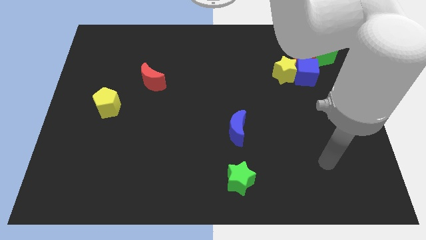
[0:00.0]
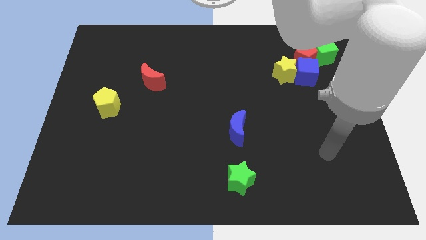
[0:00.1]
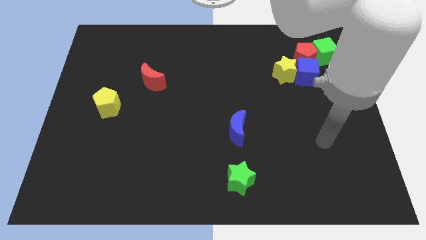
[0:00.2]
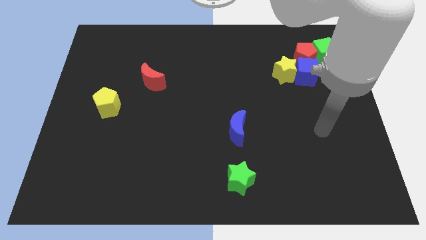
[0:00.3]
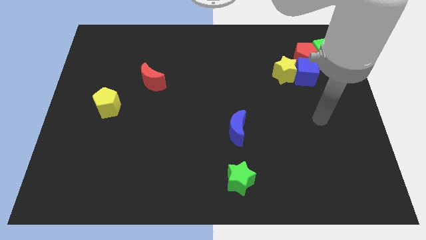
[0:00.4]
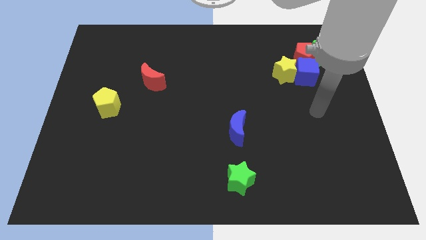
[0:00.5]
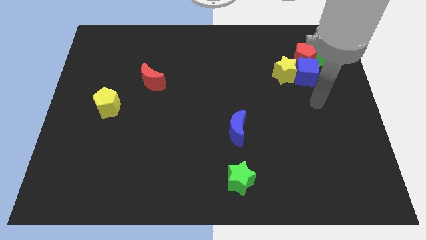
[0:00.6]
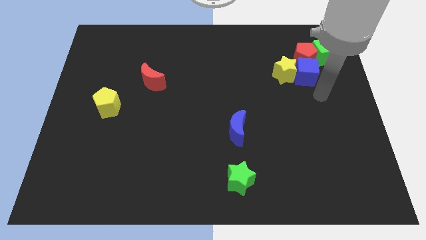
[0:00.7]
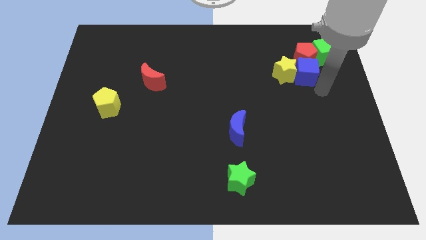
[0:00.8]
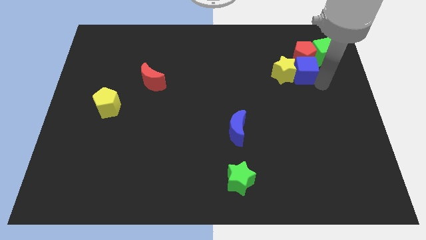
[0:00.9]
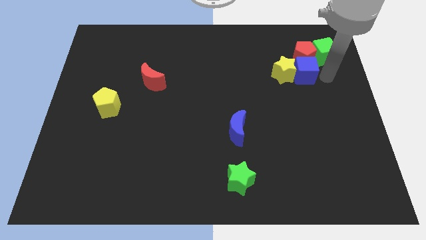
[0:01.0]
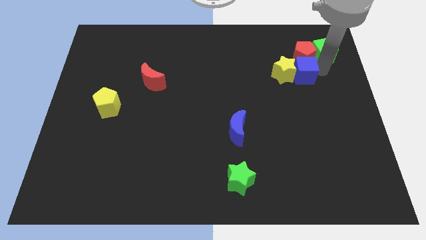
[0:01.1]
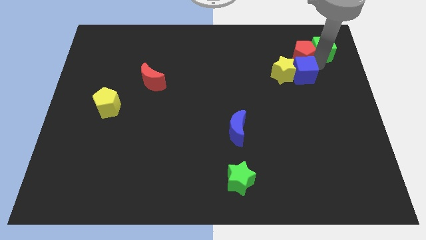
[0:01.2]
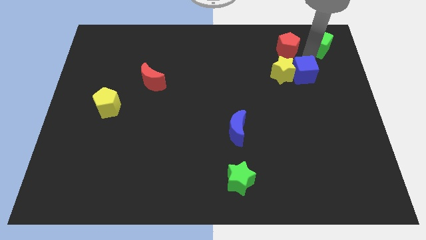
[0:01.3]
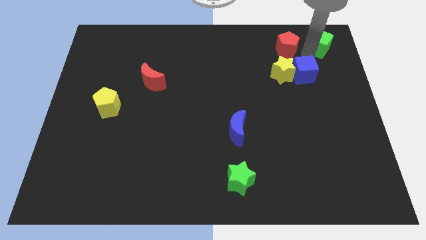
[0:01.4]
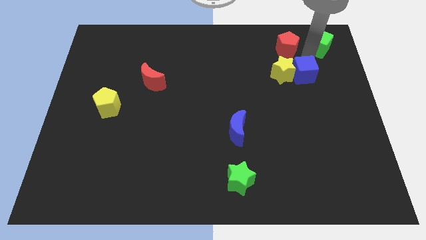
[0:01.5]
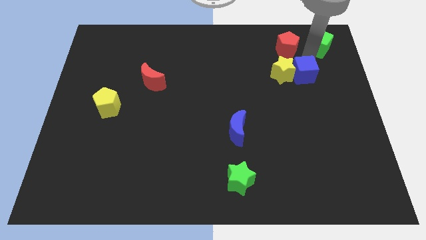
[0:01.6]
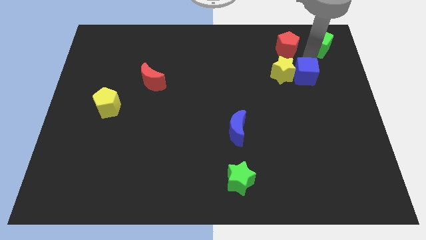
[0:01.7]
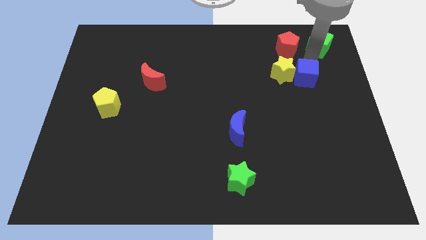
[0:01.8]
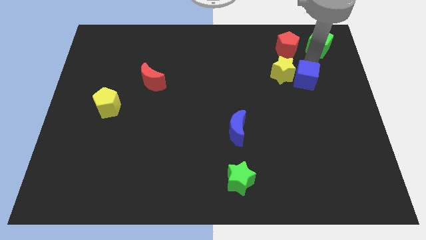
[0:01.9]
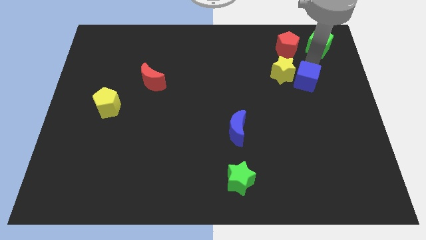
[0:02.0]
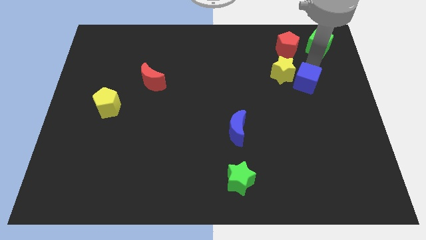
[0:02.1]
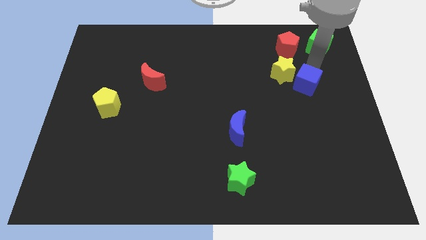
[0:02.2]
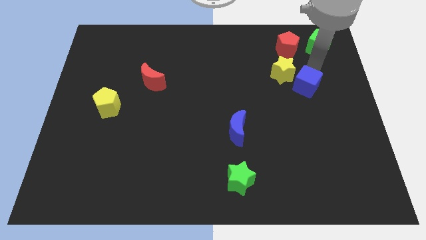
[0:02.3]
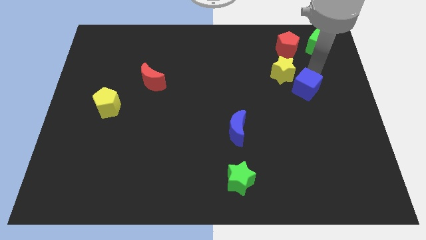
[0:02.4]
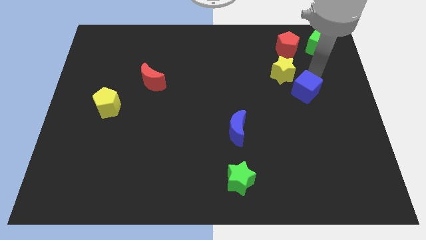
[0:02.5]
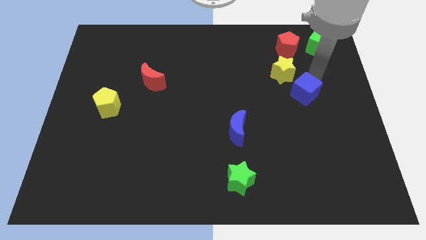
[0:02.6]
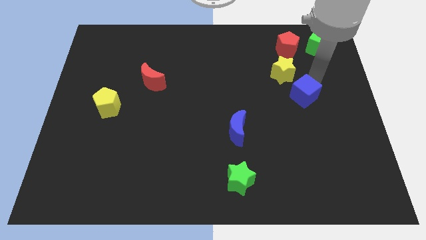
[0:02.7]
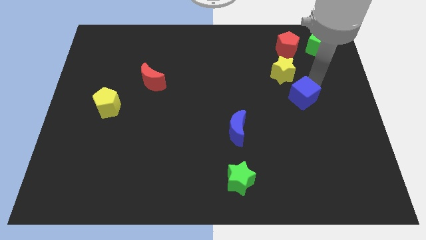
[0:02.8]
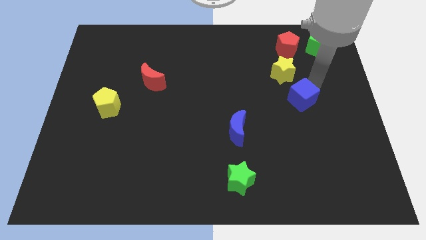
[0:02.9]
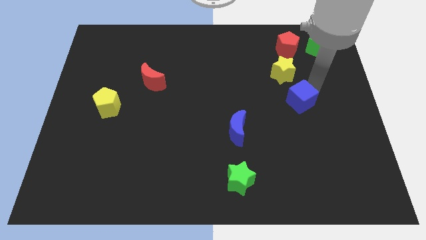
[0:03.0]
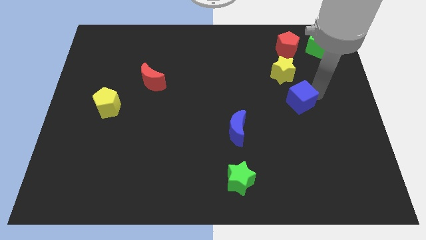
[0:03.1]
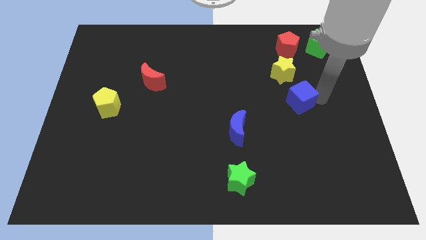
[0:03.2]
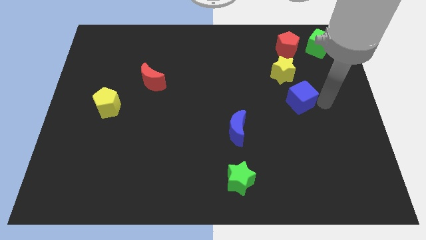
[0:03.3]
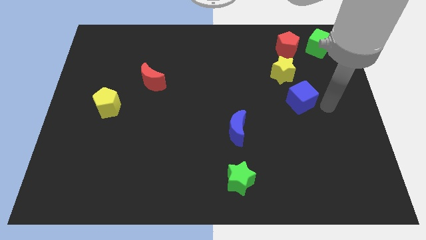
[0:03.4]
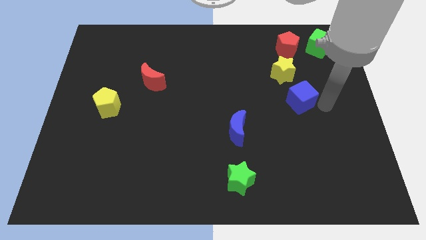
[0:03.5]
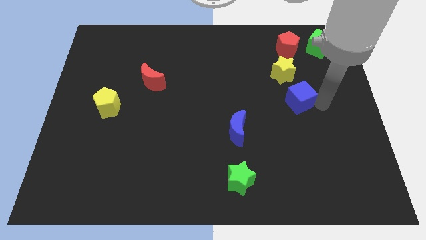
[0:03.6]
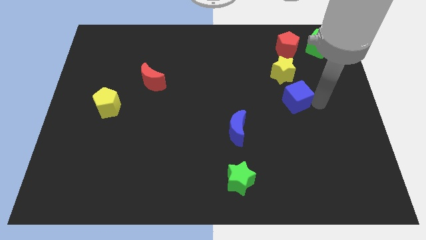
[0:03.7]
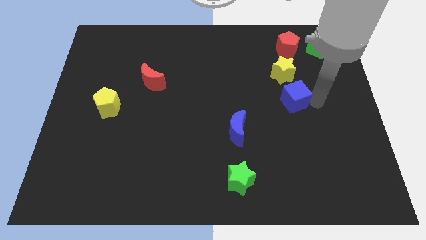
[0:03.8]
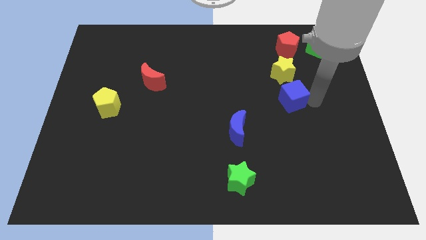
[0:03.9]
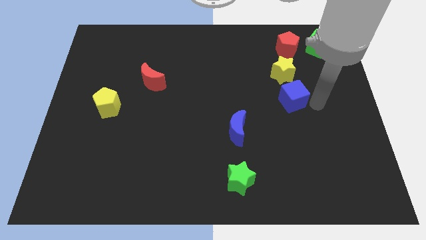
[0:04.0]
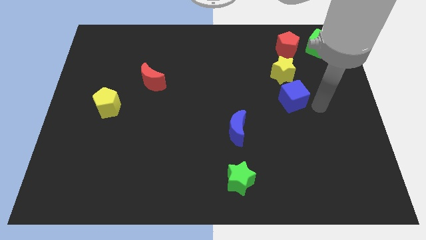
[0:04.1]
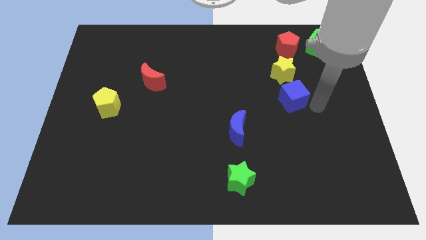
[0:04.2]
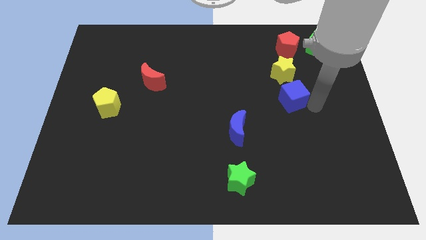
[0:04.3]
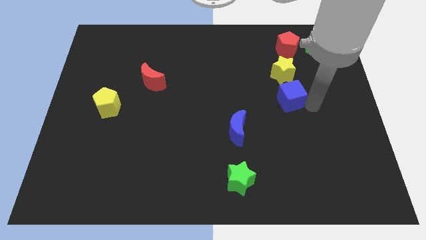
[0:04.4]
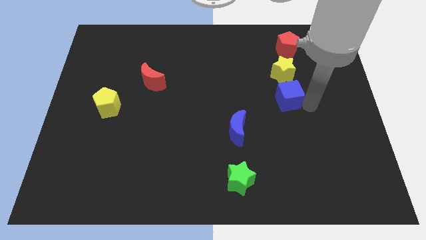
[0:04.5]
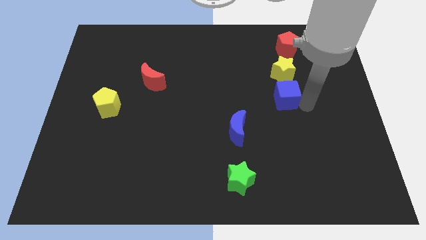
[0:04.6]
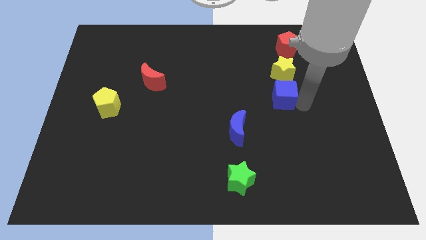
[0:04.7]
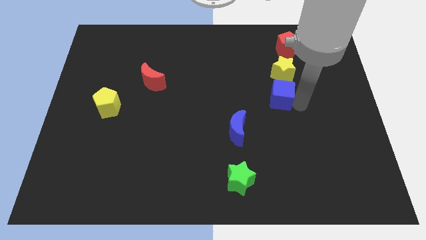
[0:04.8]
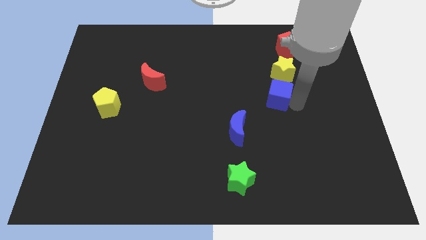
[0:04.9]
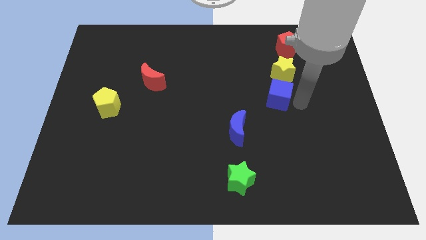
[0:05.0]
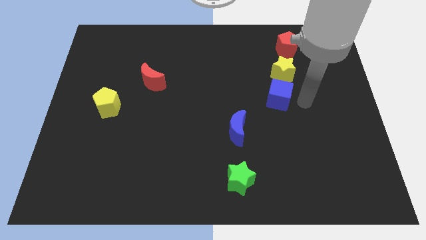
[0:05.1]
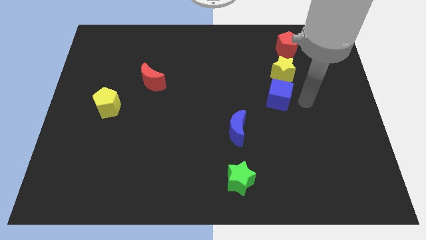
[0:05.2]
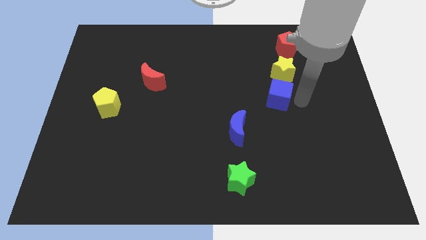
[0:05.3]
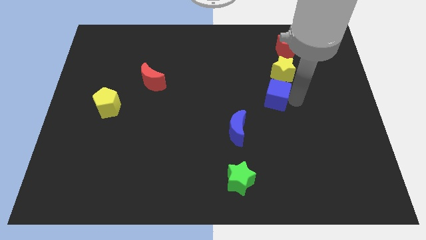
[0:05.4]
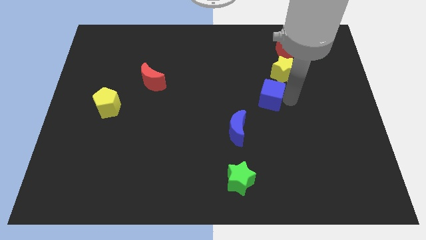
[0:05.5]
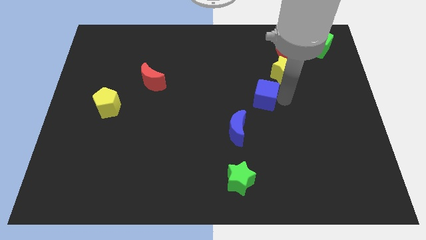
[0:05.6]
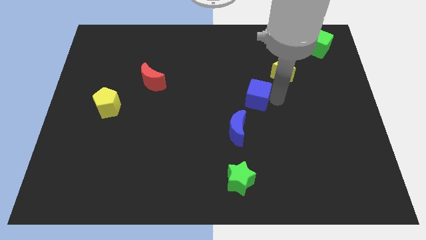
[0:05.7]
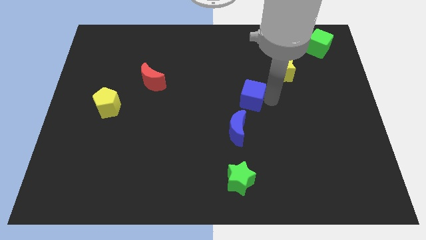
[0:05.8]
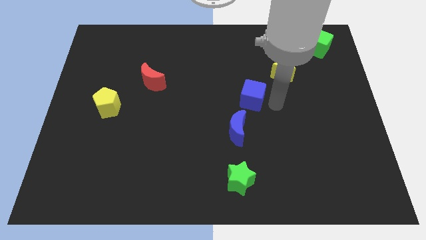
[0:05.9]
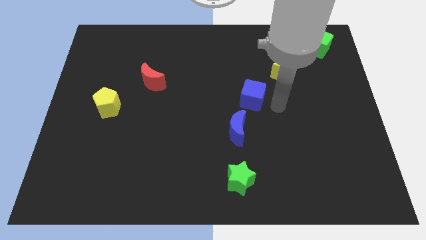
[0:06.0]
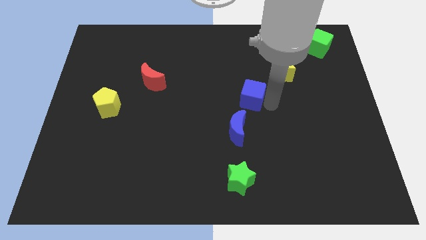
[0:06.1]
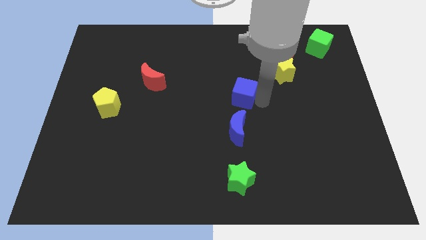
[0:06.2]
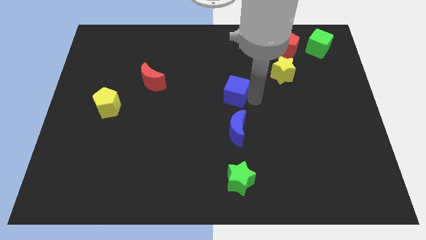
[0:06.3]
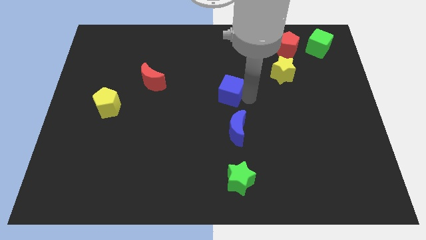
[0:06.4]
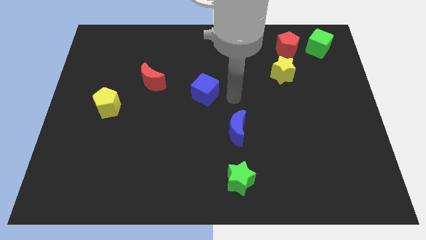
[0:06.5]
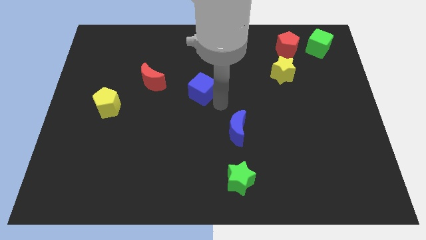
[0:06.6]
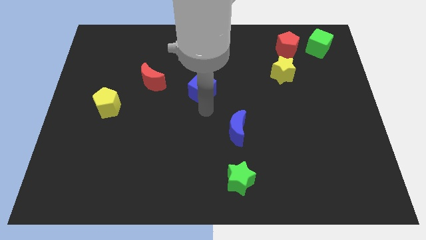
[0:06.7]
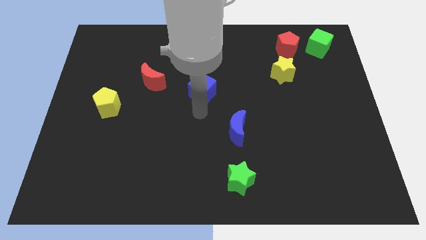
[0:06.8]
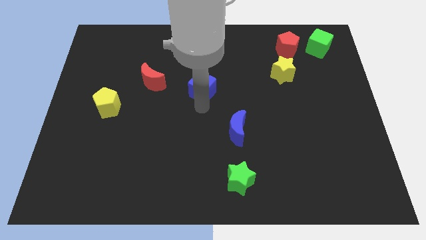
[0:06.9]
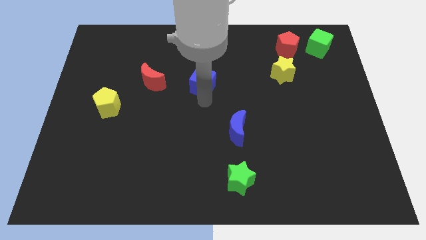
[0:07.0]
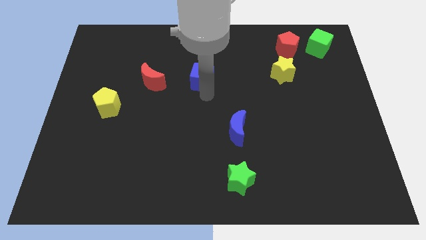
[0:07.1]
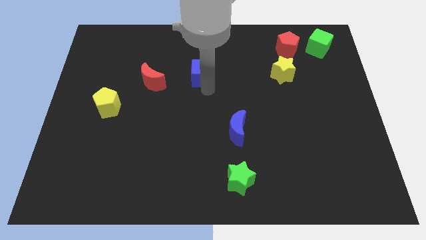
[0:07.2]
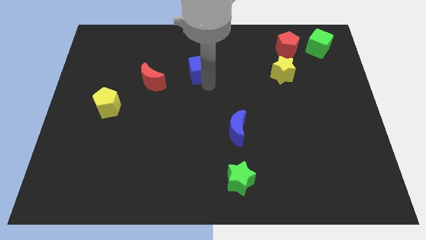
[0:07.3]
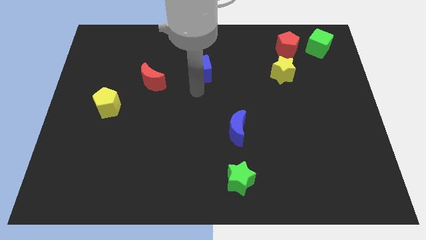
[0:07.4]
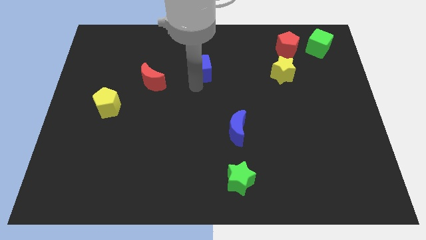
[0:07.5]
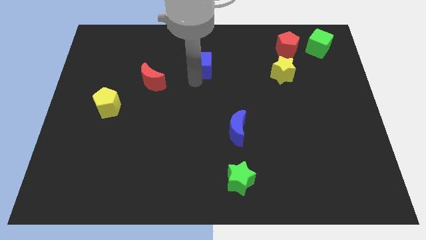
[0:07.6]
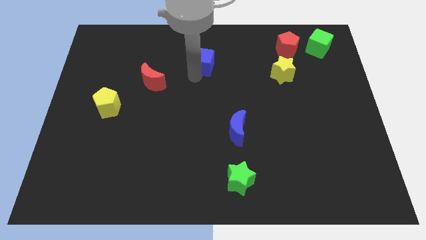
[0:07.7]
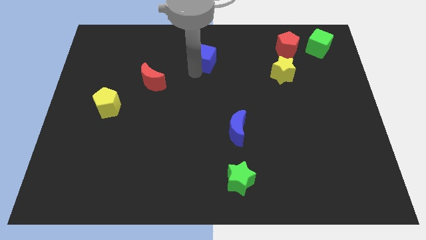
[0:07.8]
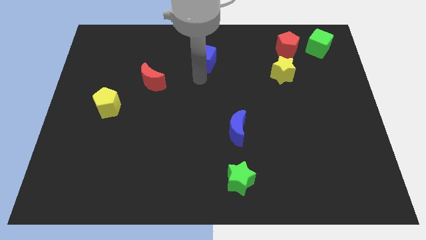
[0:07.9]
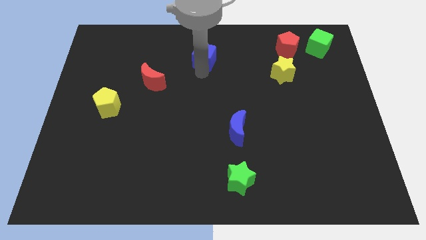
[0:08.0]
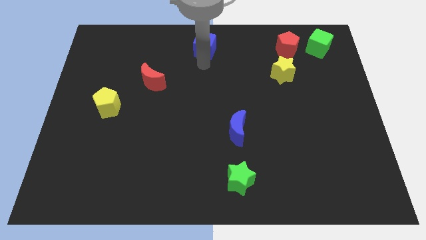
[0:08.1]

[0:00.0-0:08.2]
put the blue cube to the top side
